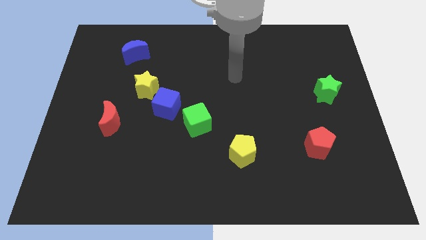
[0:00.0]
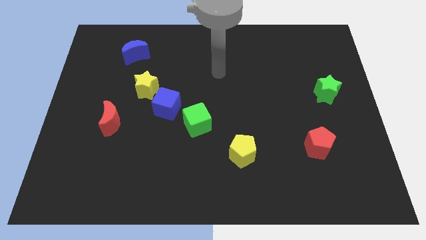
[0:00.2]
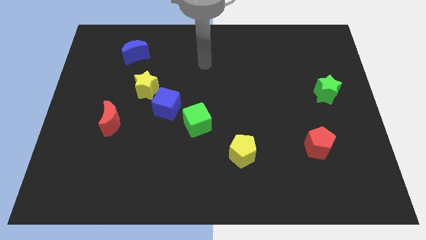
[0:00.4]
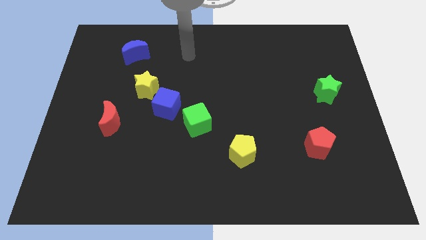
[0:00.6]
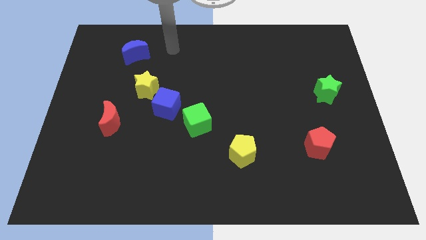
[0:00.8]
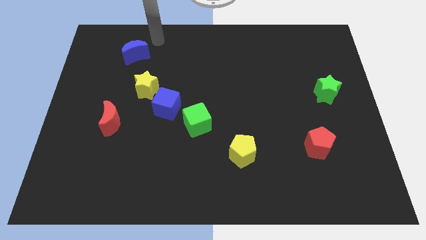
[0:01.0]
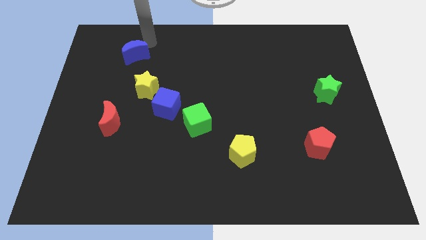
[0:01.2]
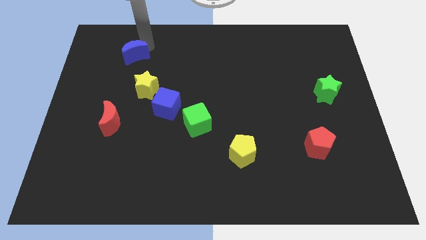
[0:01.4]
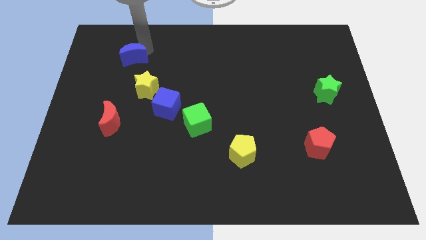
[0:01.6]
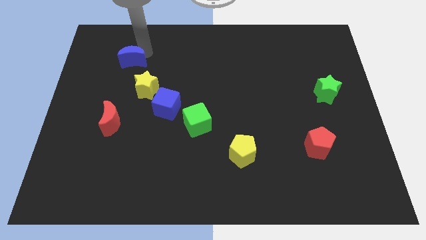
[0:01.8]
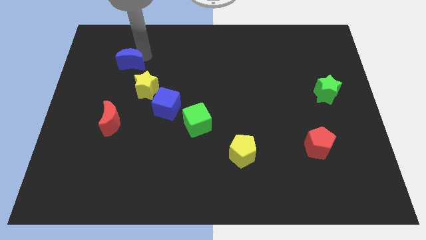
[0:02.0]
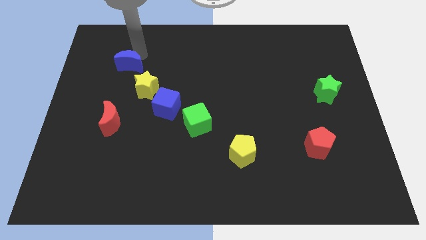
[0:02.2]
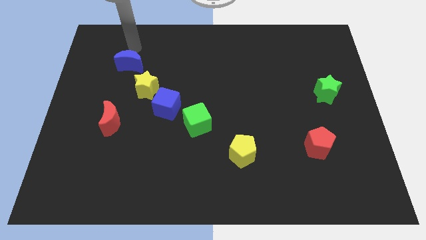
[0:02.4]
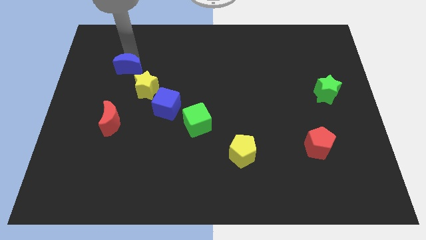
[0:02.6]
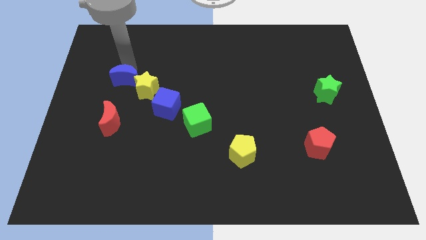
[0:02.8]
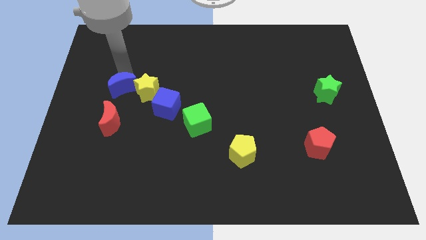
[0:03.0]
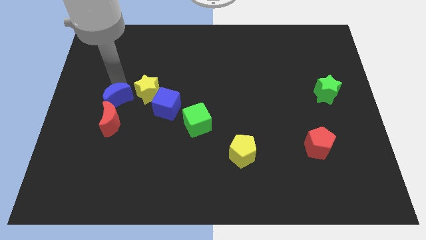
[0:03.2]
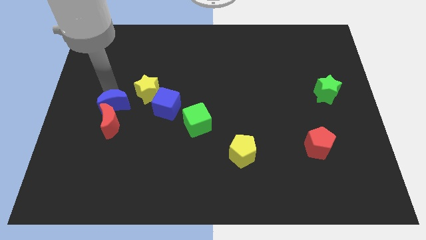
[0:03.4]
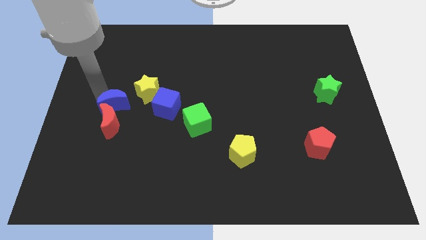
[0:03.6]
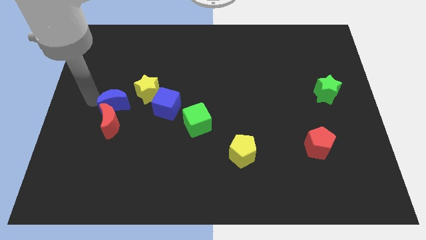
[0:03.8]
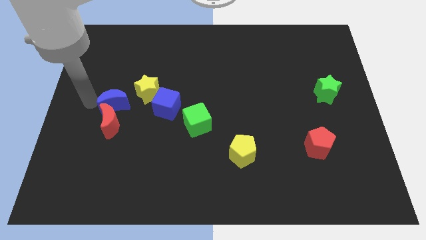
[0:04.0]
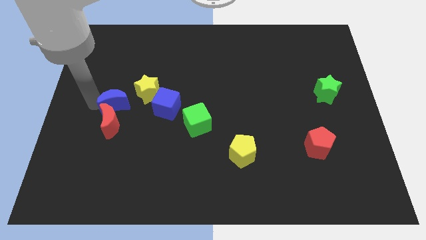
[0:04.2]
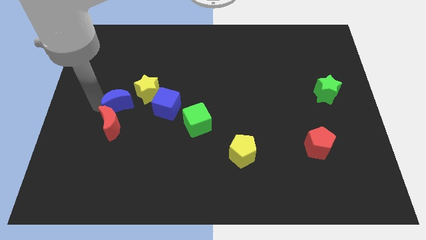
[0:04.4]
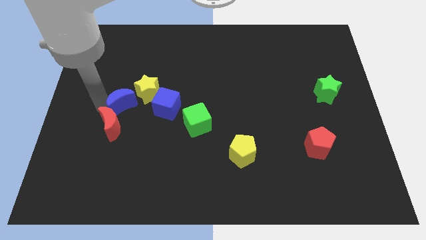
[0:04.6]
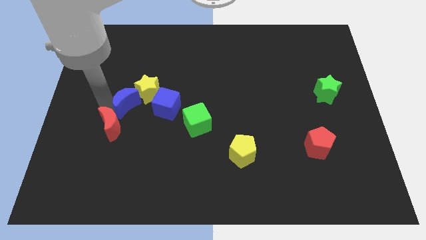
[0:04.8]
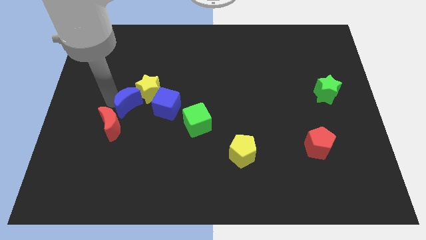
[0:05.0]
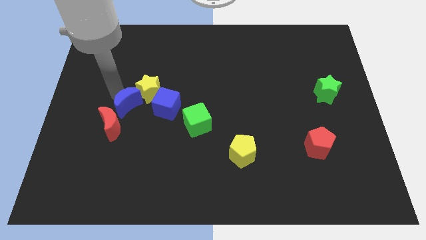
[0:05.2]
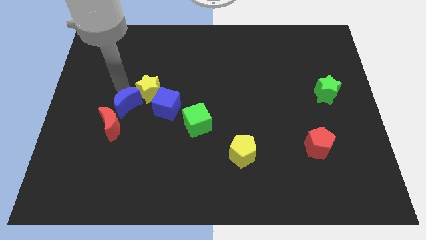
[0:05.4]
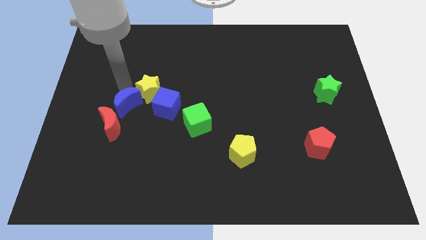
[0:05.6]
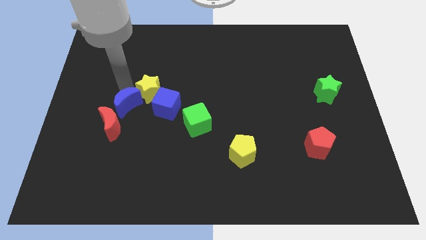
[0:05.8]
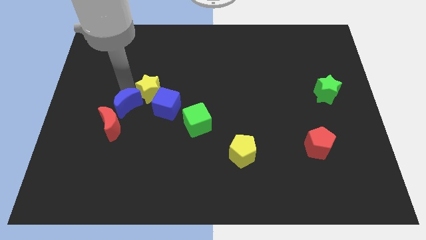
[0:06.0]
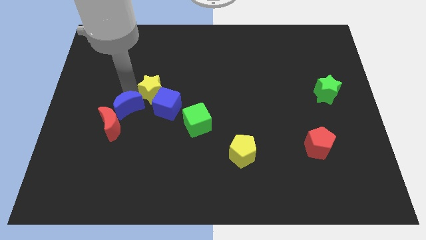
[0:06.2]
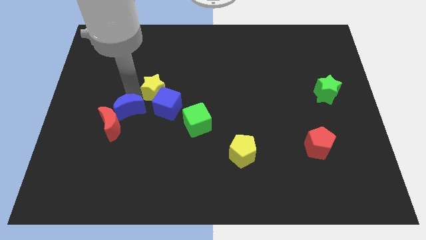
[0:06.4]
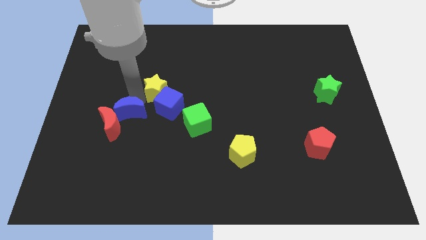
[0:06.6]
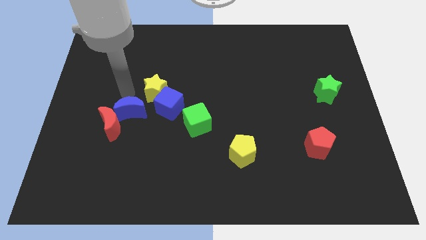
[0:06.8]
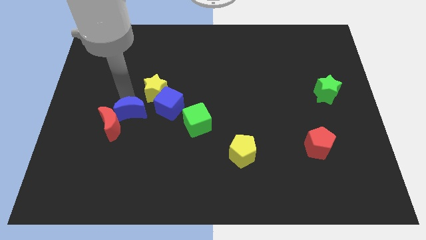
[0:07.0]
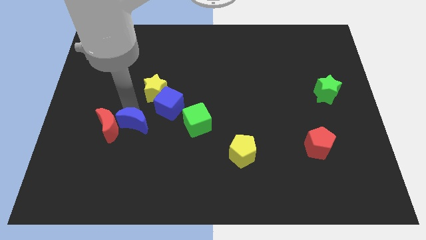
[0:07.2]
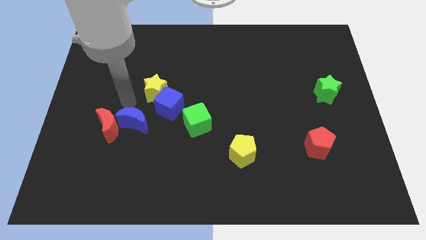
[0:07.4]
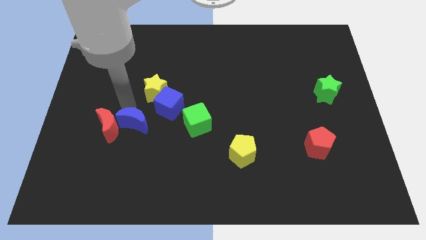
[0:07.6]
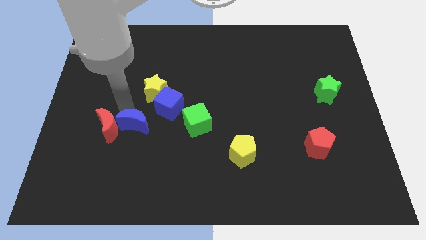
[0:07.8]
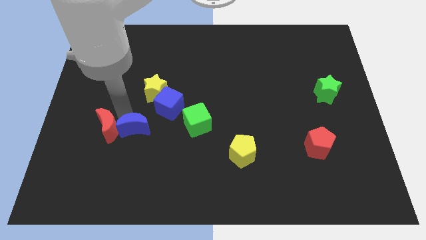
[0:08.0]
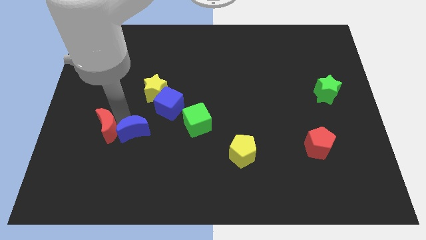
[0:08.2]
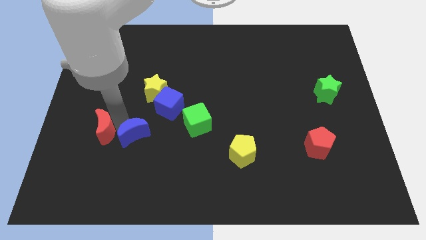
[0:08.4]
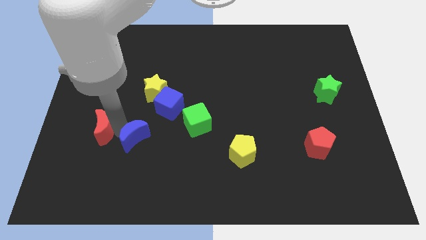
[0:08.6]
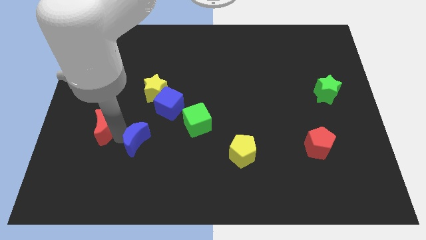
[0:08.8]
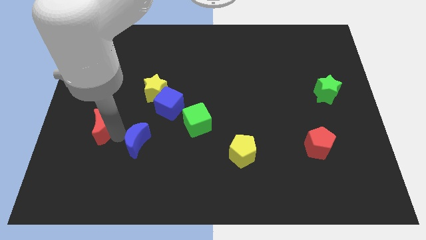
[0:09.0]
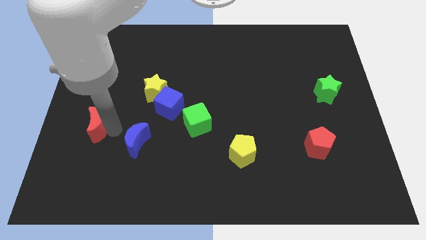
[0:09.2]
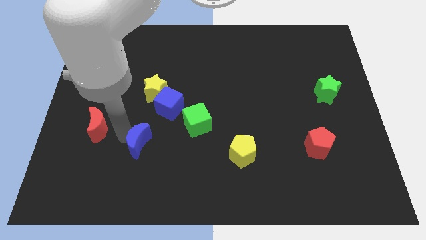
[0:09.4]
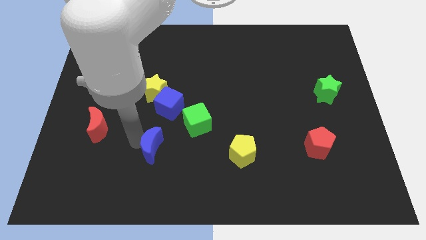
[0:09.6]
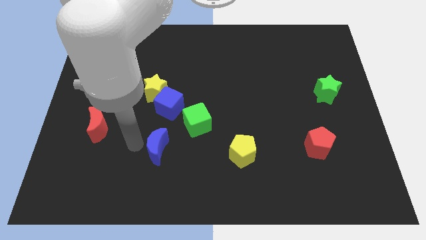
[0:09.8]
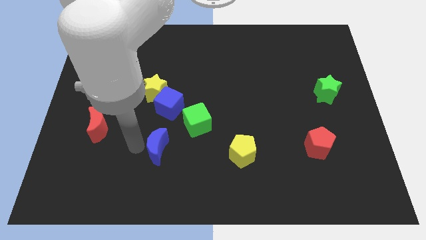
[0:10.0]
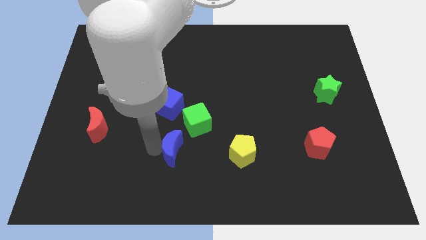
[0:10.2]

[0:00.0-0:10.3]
put the blue moon left of the yellow pentagon

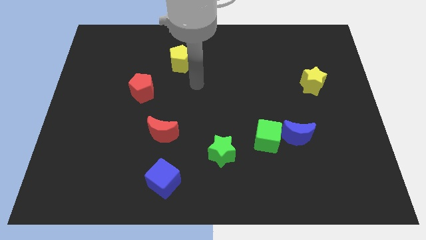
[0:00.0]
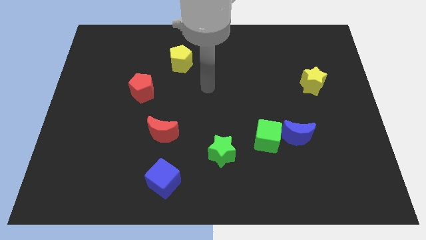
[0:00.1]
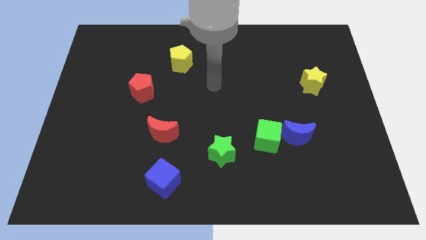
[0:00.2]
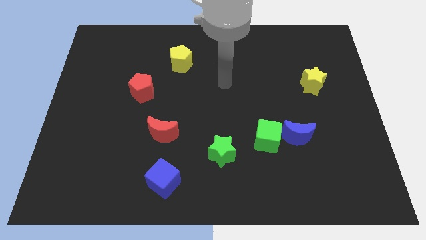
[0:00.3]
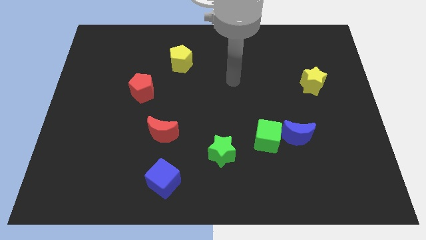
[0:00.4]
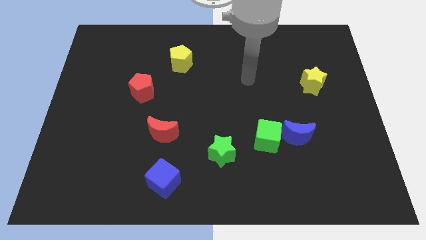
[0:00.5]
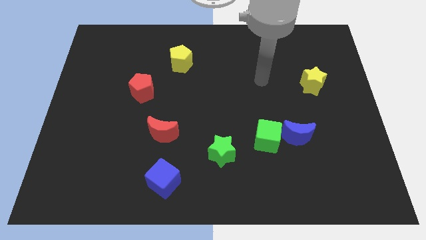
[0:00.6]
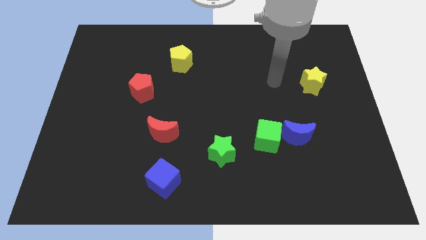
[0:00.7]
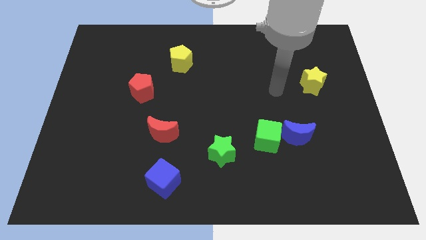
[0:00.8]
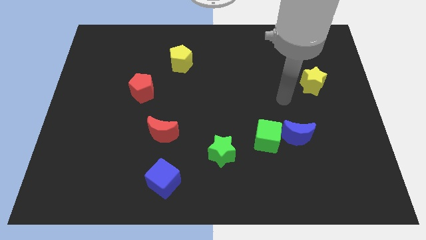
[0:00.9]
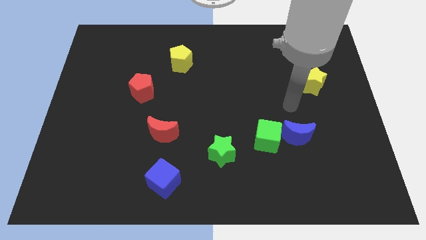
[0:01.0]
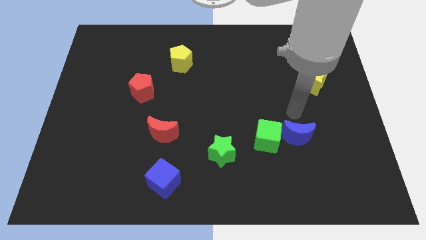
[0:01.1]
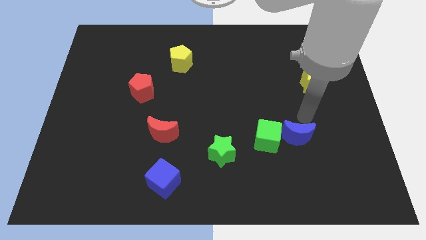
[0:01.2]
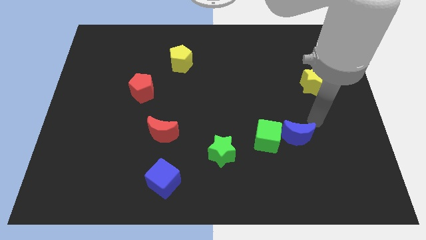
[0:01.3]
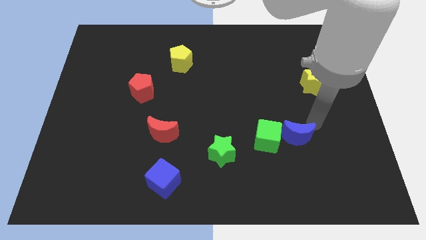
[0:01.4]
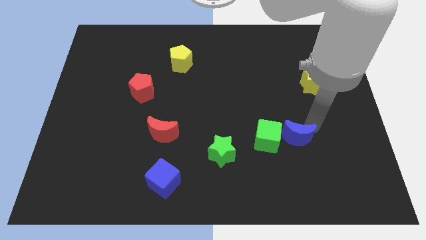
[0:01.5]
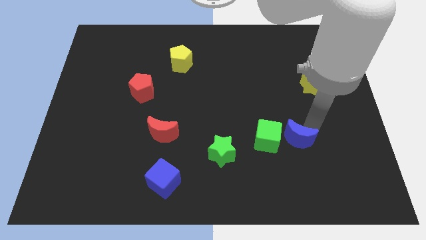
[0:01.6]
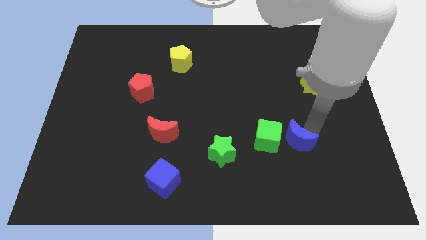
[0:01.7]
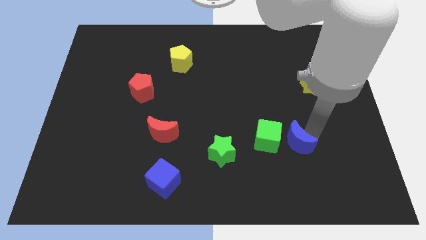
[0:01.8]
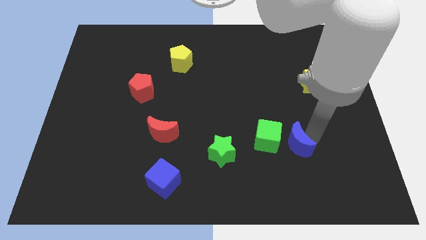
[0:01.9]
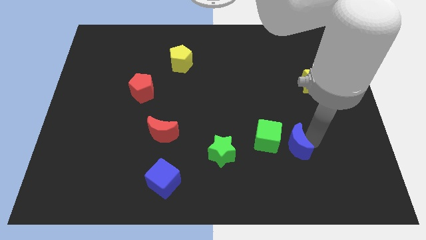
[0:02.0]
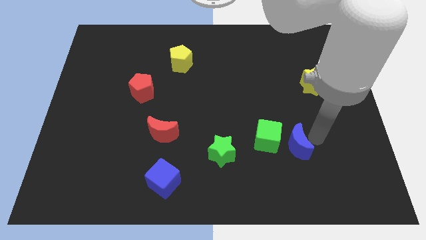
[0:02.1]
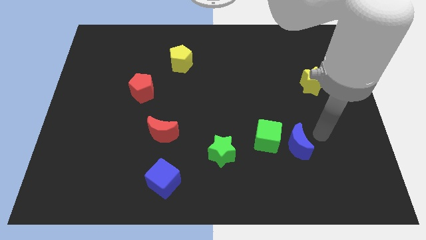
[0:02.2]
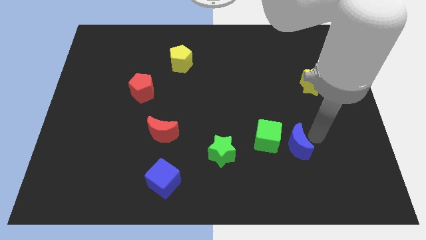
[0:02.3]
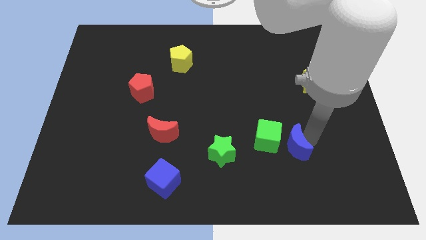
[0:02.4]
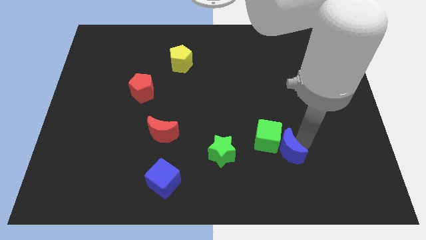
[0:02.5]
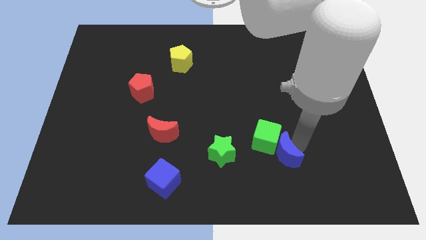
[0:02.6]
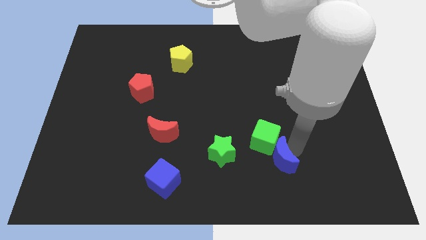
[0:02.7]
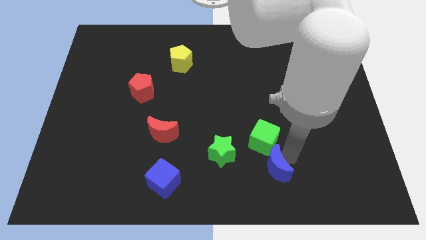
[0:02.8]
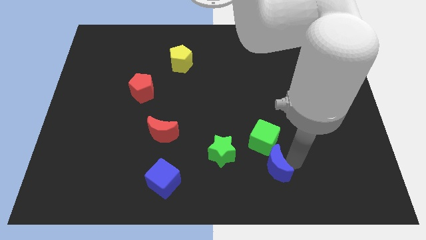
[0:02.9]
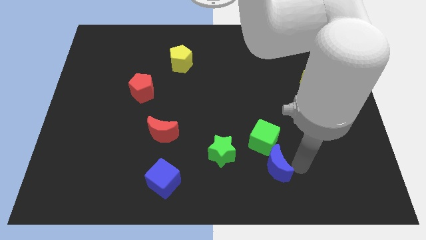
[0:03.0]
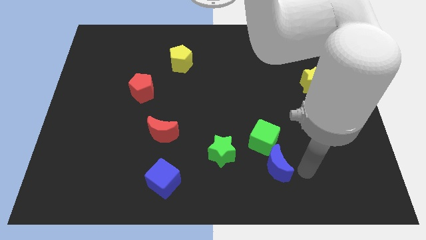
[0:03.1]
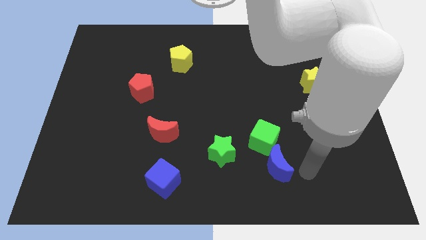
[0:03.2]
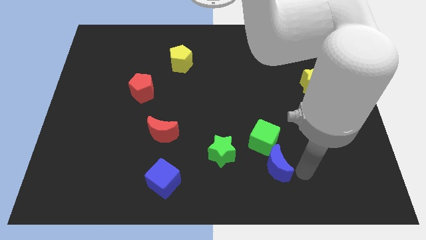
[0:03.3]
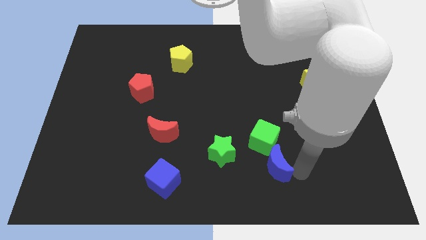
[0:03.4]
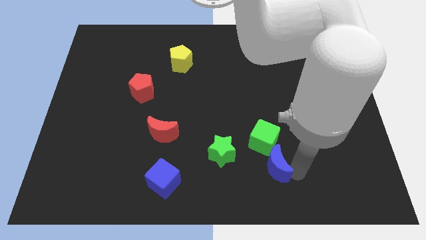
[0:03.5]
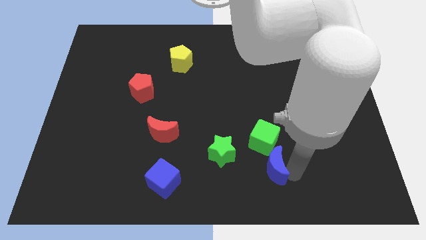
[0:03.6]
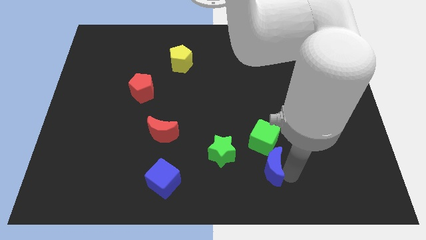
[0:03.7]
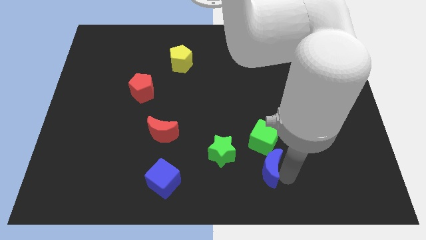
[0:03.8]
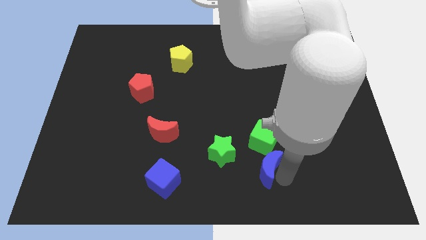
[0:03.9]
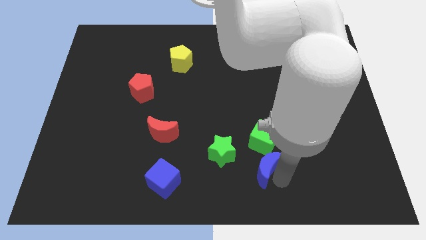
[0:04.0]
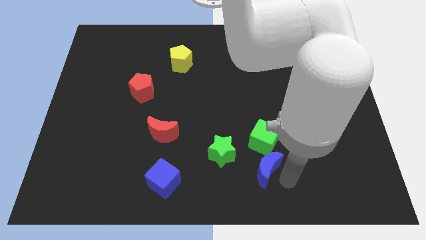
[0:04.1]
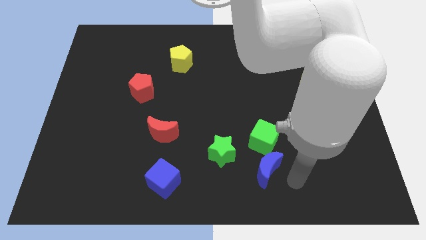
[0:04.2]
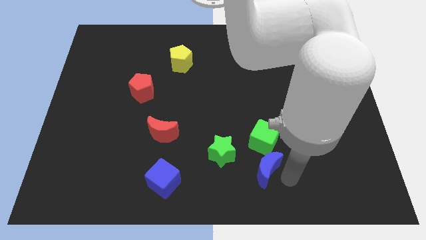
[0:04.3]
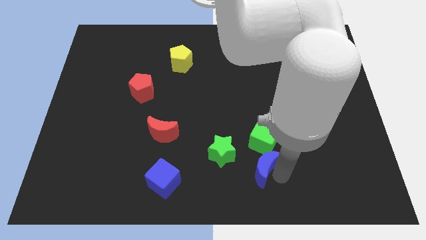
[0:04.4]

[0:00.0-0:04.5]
push the blue moon diagonally down and to the left of the green cube
